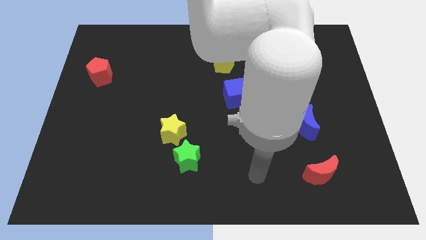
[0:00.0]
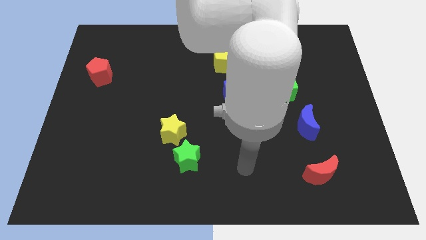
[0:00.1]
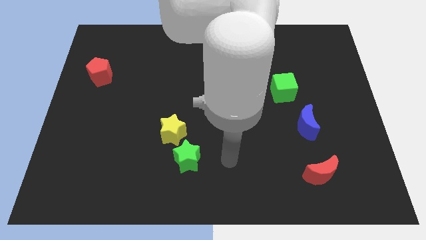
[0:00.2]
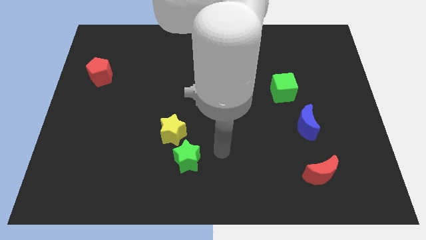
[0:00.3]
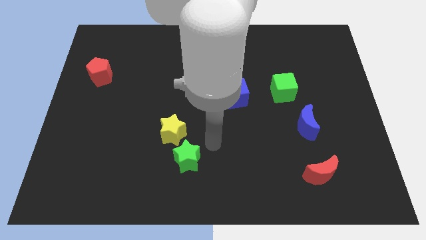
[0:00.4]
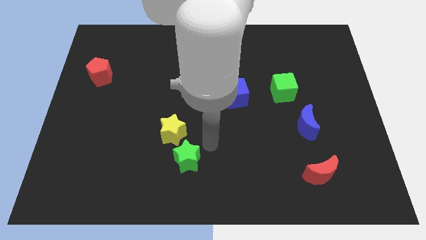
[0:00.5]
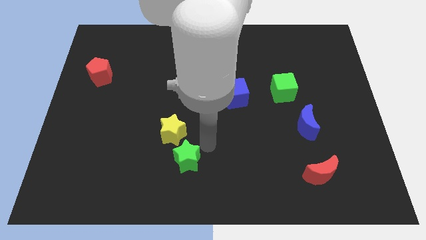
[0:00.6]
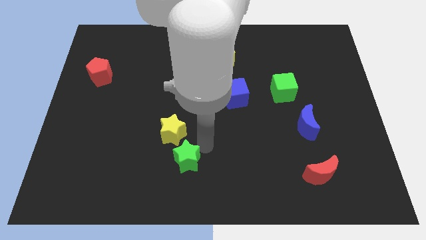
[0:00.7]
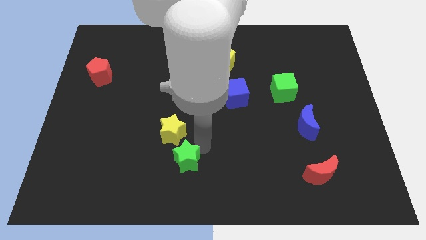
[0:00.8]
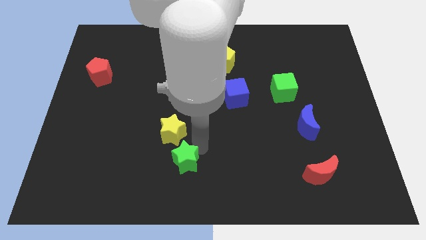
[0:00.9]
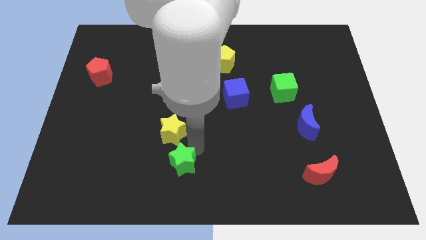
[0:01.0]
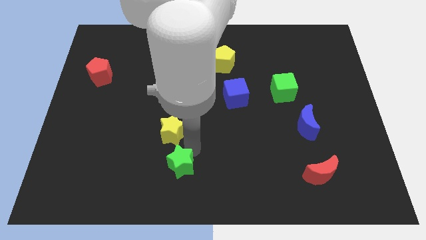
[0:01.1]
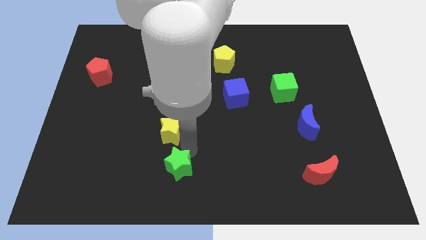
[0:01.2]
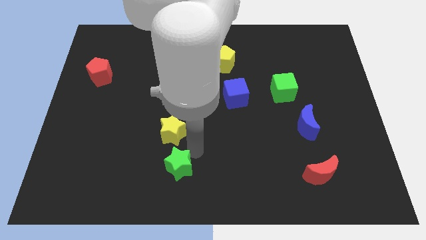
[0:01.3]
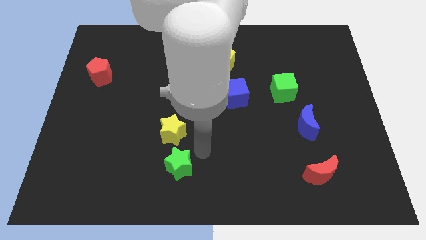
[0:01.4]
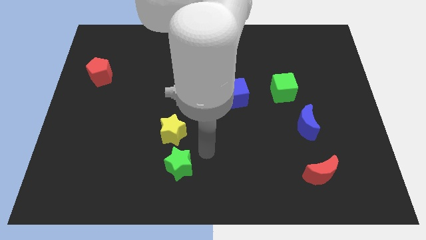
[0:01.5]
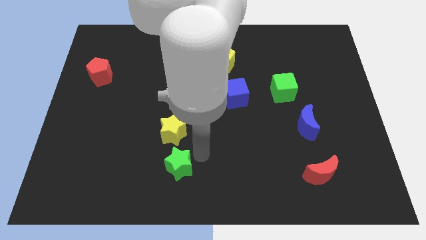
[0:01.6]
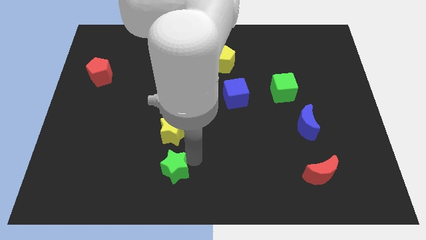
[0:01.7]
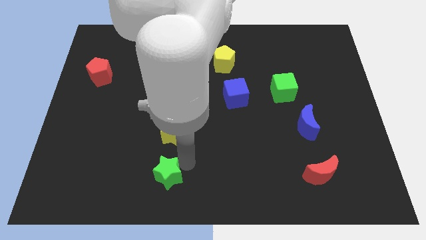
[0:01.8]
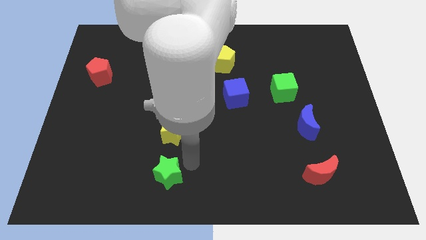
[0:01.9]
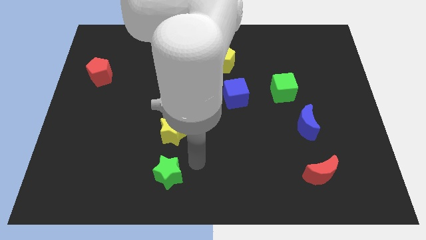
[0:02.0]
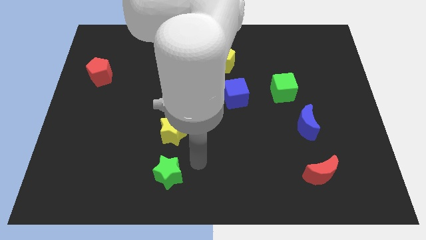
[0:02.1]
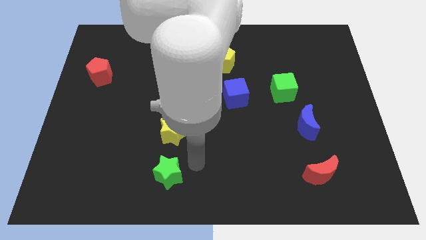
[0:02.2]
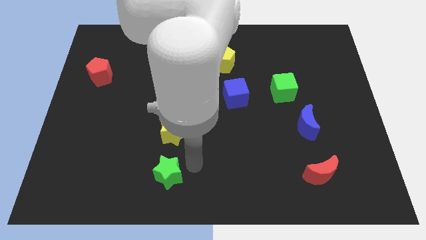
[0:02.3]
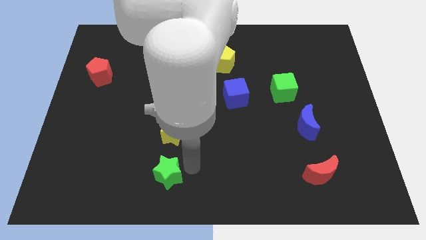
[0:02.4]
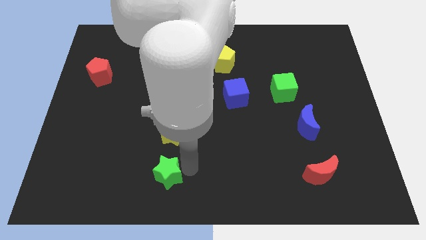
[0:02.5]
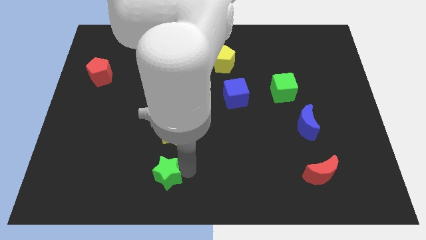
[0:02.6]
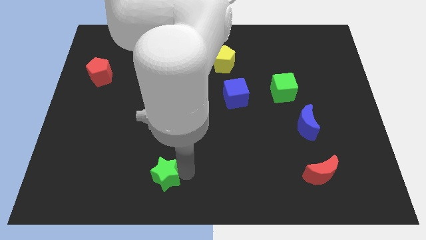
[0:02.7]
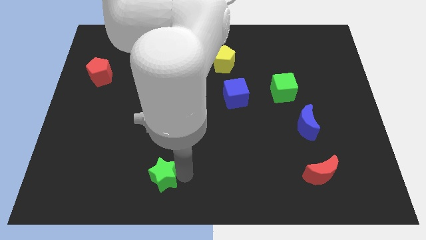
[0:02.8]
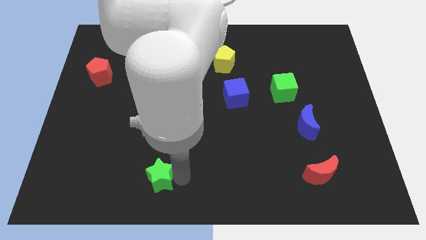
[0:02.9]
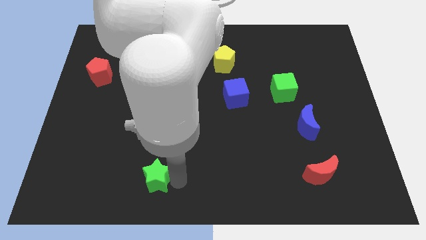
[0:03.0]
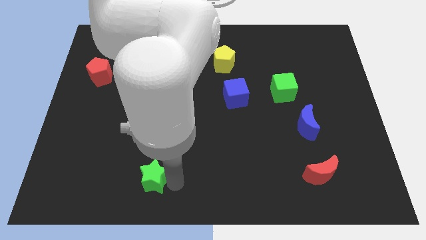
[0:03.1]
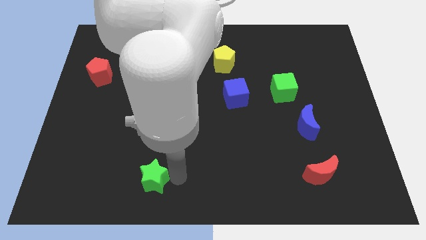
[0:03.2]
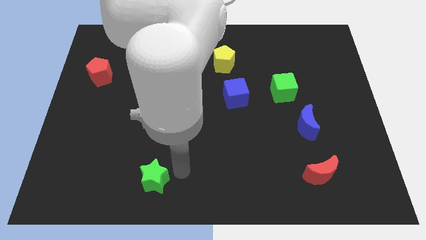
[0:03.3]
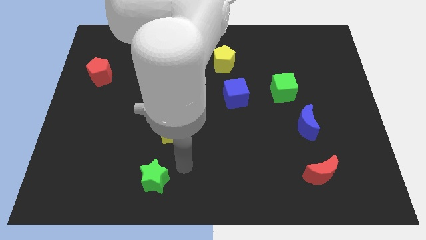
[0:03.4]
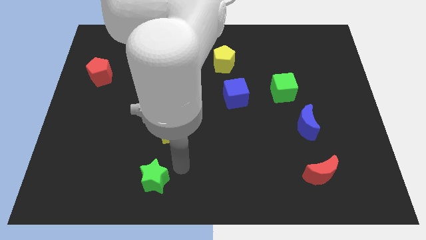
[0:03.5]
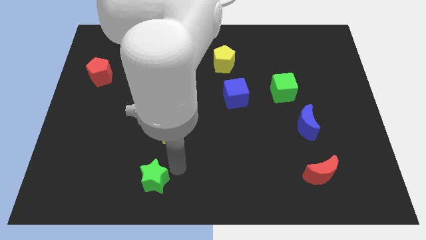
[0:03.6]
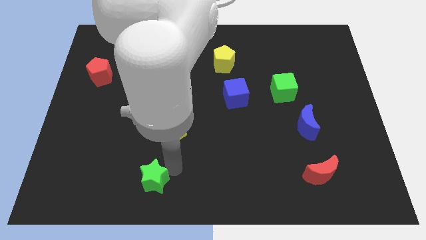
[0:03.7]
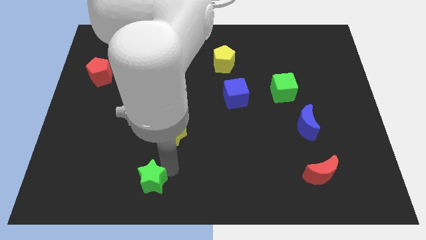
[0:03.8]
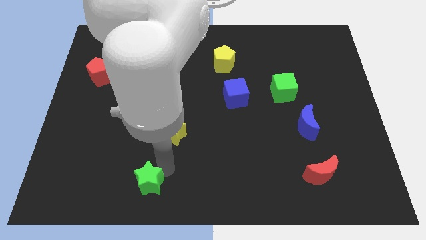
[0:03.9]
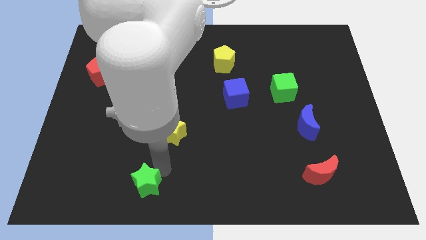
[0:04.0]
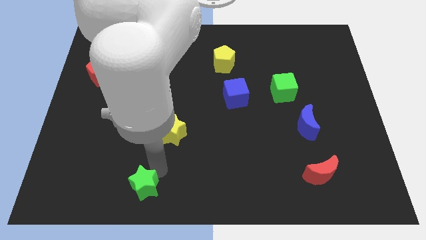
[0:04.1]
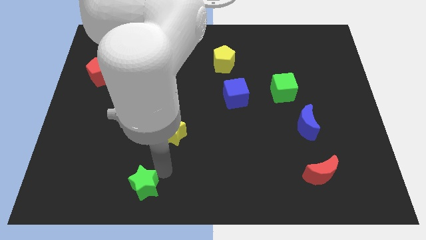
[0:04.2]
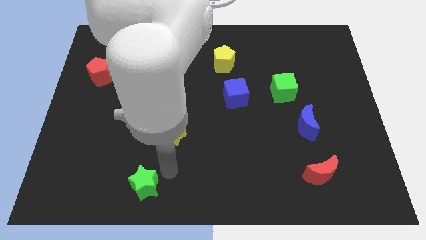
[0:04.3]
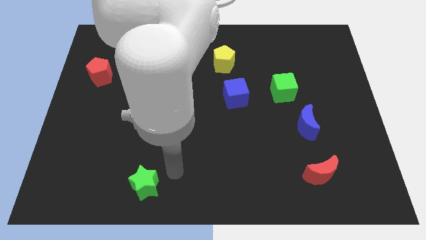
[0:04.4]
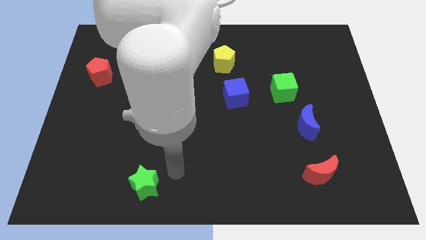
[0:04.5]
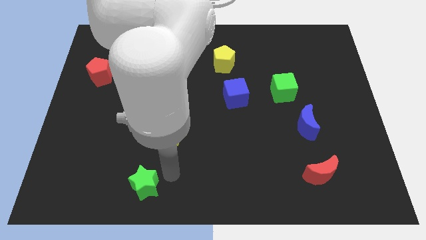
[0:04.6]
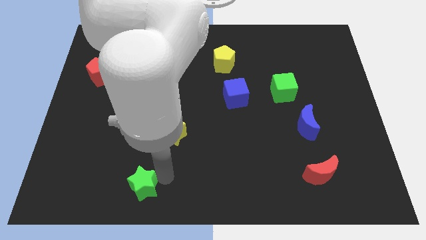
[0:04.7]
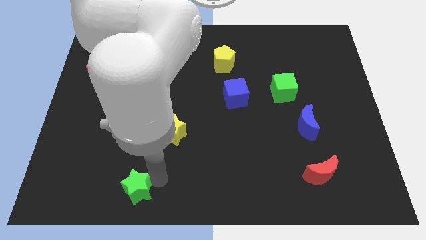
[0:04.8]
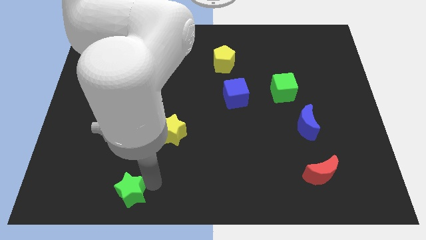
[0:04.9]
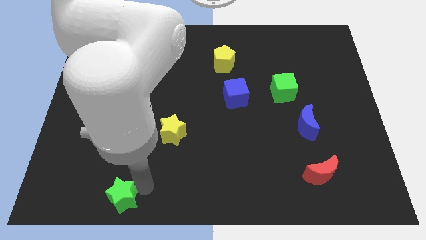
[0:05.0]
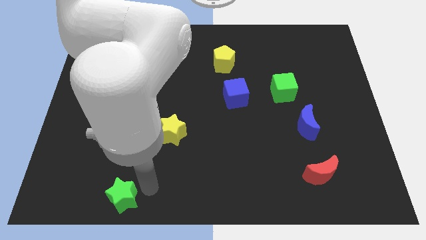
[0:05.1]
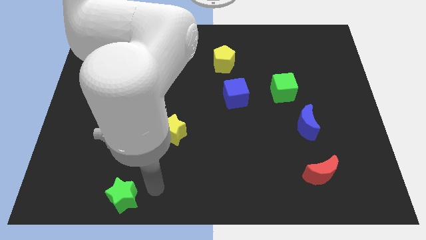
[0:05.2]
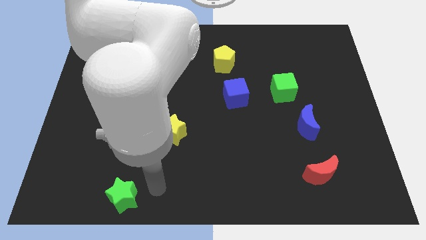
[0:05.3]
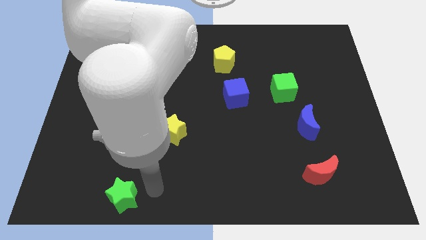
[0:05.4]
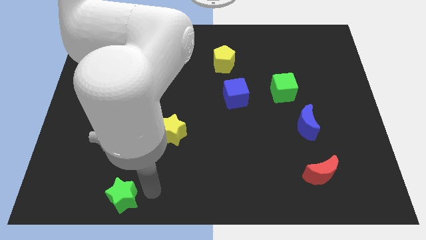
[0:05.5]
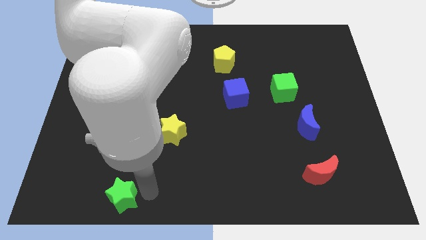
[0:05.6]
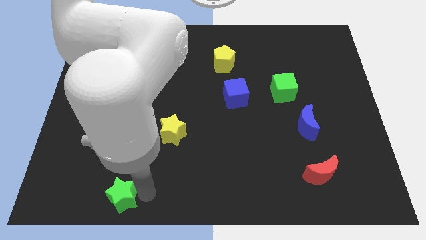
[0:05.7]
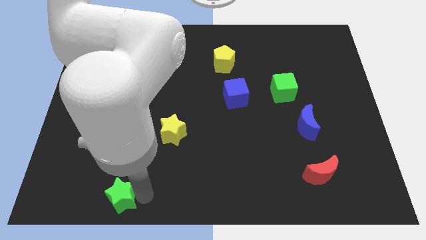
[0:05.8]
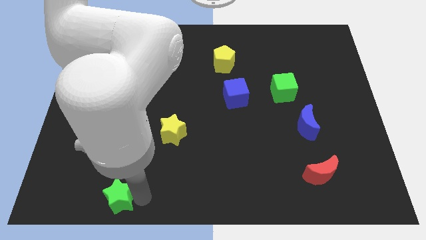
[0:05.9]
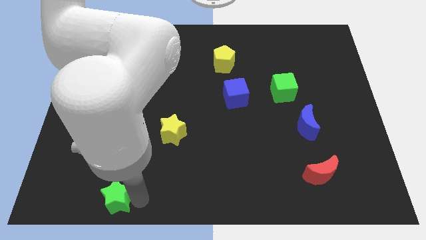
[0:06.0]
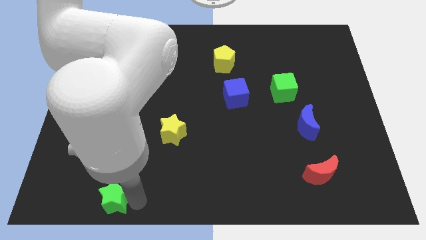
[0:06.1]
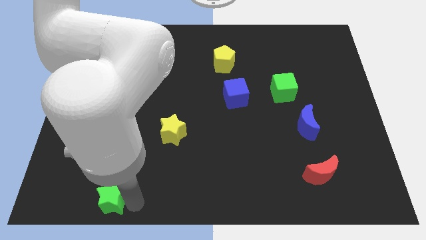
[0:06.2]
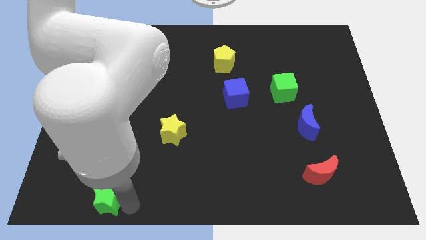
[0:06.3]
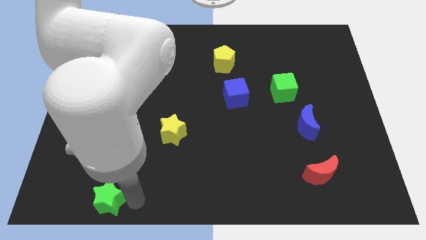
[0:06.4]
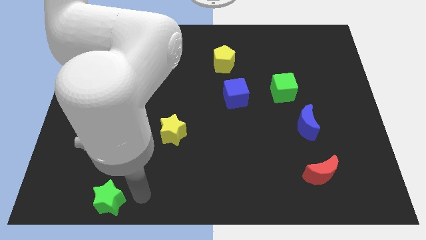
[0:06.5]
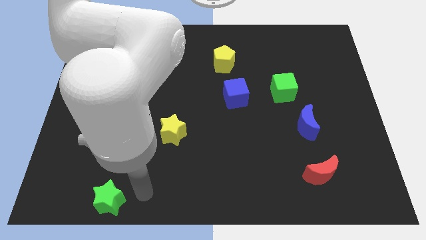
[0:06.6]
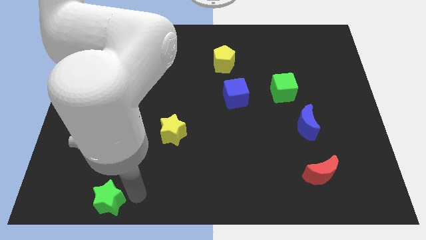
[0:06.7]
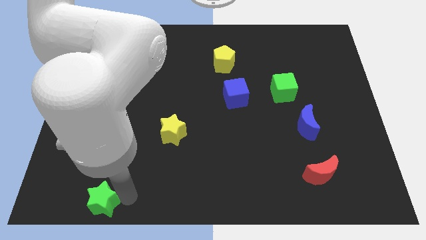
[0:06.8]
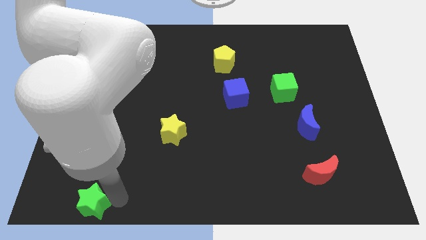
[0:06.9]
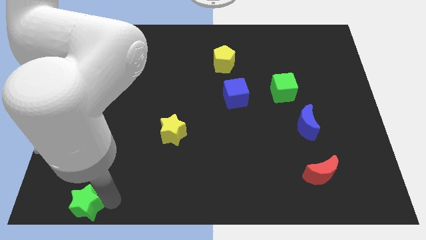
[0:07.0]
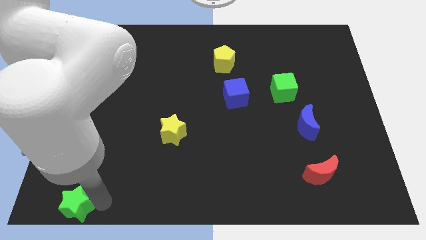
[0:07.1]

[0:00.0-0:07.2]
slide the green star to the bottom left of the board

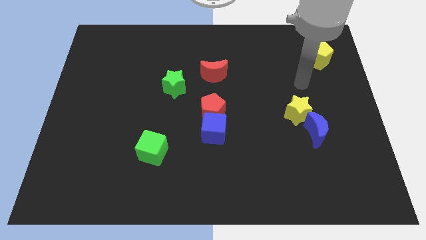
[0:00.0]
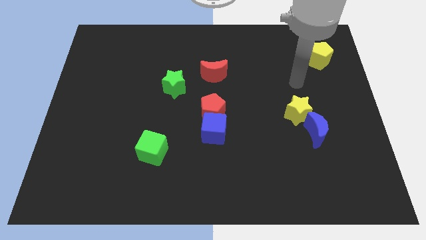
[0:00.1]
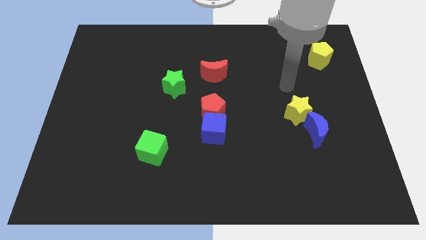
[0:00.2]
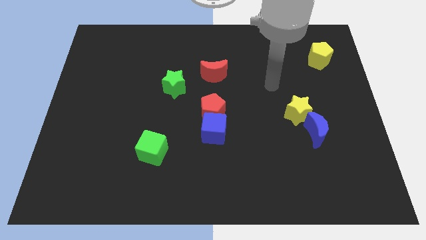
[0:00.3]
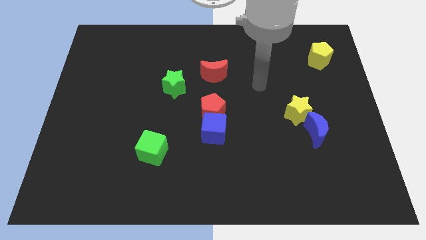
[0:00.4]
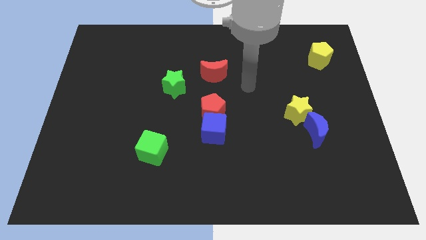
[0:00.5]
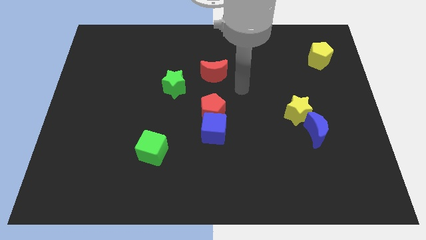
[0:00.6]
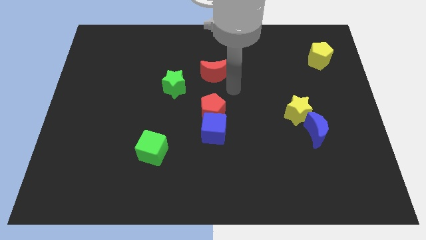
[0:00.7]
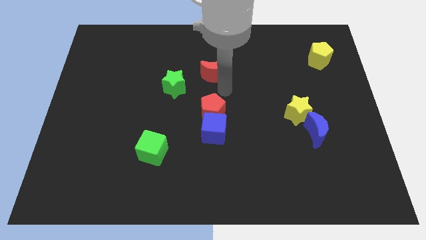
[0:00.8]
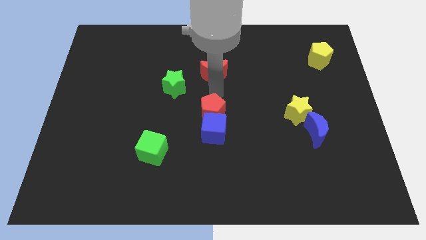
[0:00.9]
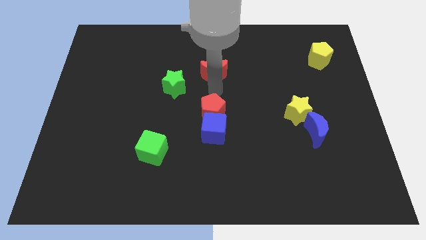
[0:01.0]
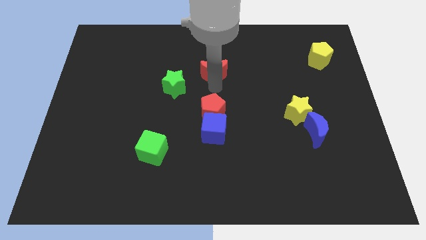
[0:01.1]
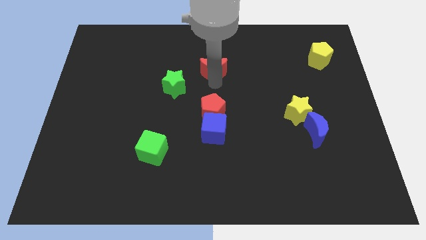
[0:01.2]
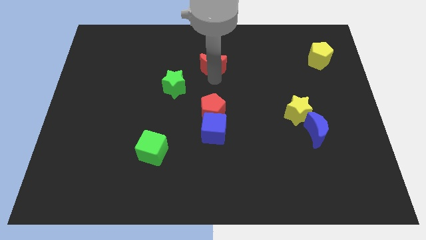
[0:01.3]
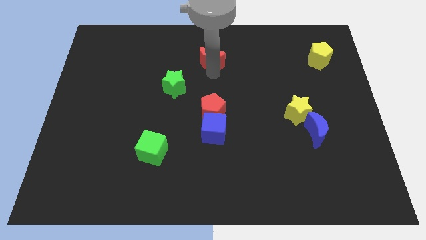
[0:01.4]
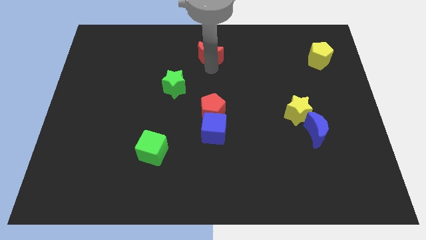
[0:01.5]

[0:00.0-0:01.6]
slide the red moon to the towards your base
